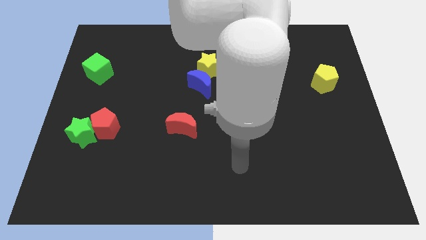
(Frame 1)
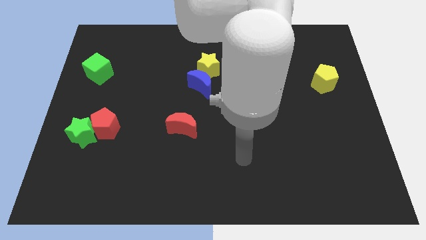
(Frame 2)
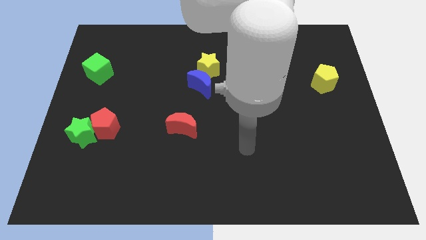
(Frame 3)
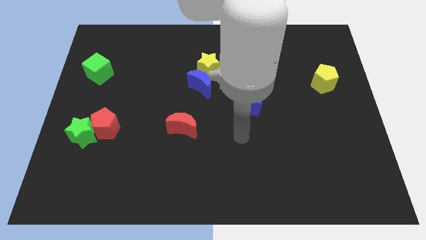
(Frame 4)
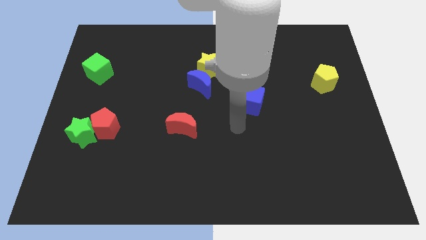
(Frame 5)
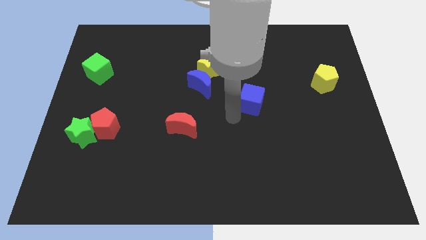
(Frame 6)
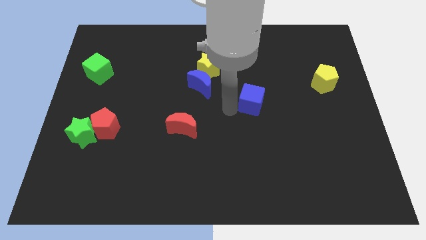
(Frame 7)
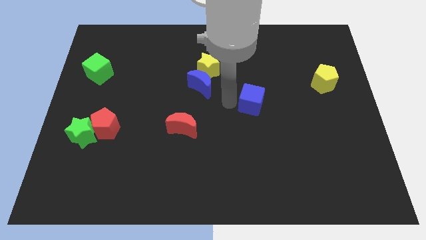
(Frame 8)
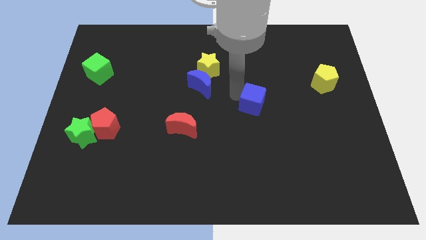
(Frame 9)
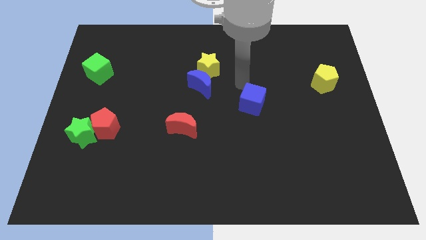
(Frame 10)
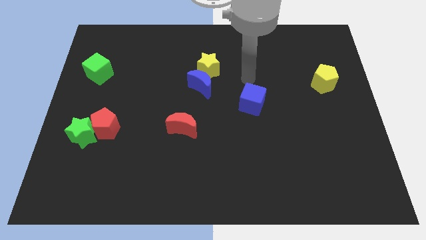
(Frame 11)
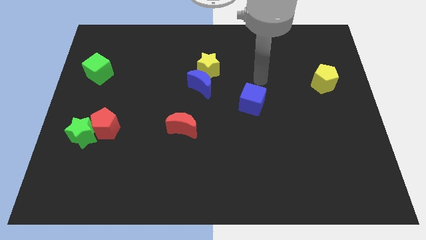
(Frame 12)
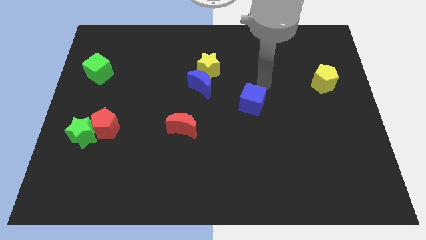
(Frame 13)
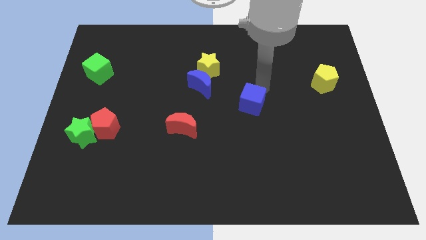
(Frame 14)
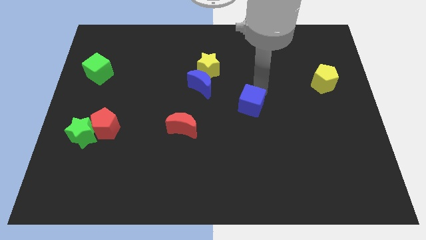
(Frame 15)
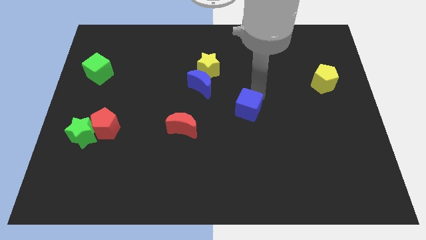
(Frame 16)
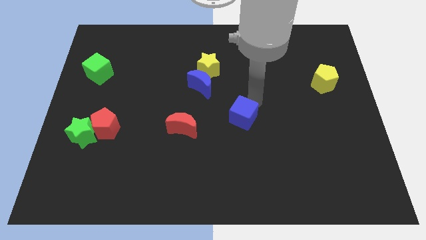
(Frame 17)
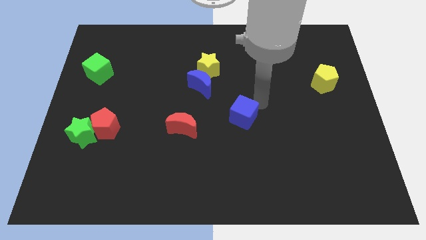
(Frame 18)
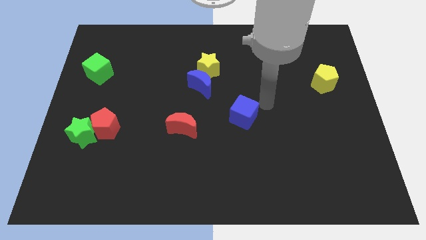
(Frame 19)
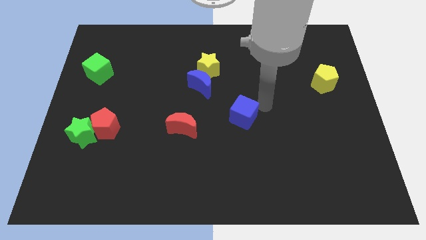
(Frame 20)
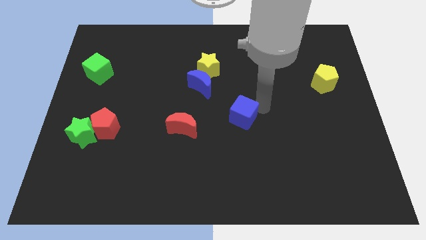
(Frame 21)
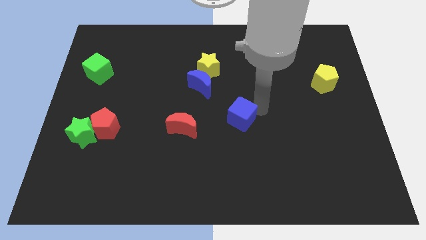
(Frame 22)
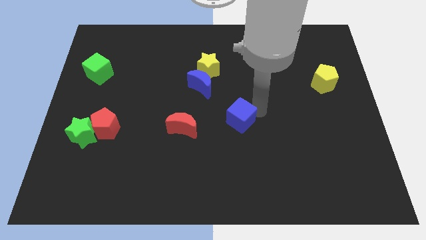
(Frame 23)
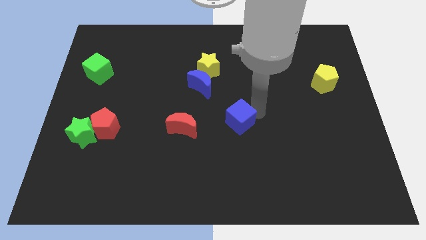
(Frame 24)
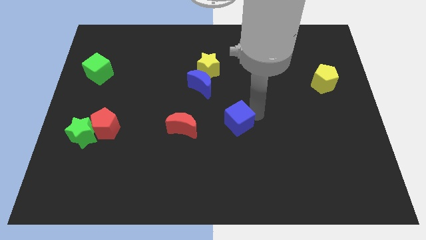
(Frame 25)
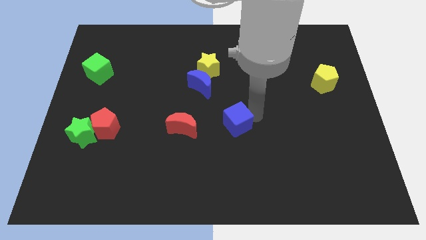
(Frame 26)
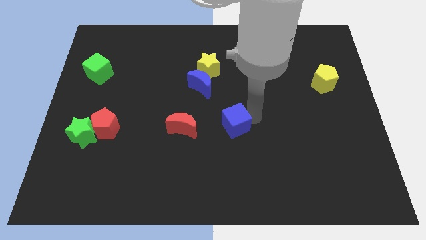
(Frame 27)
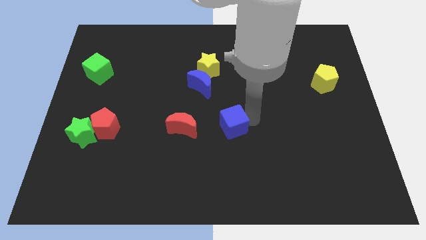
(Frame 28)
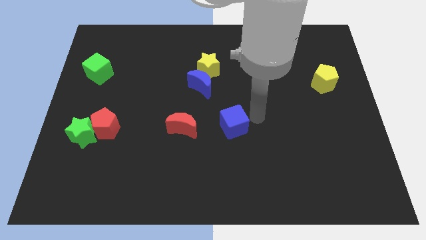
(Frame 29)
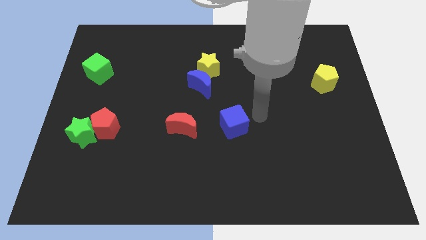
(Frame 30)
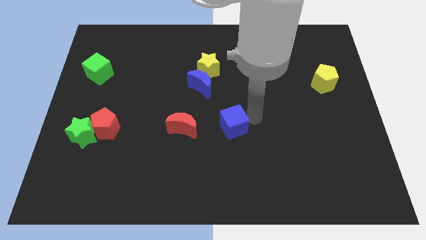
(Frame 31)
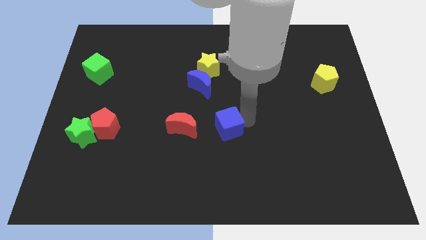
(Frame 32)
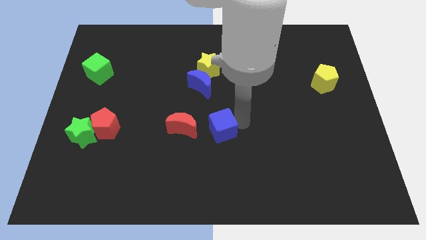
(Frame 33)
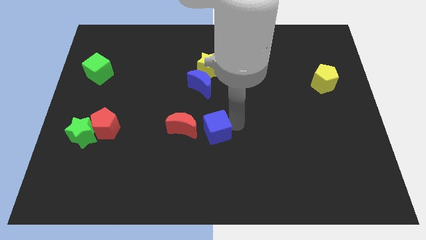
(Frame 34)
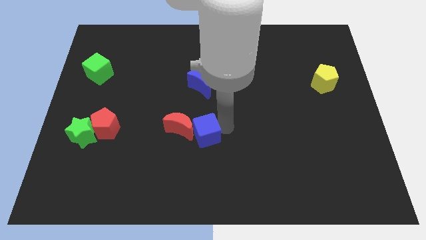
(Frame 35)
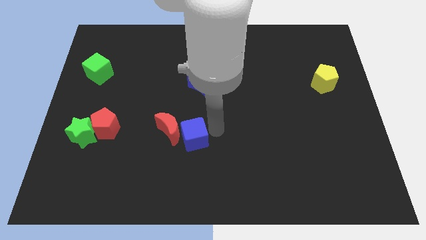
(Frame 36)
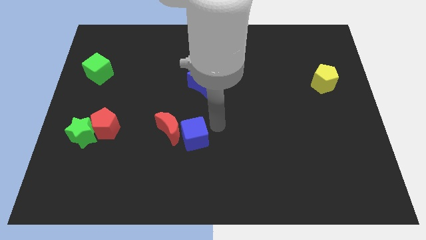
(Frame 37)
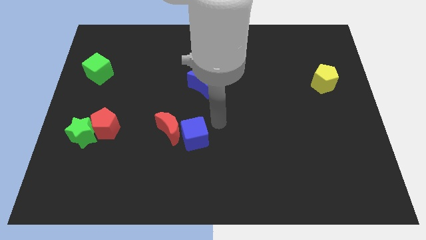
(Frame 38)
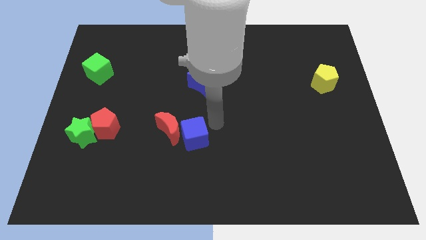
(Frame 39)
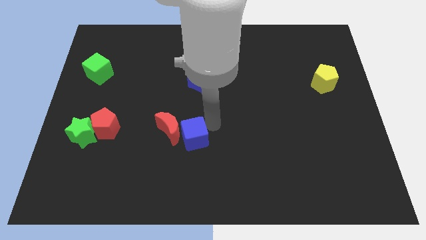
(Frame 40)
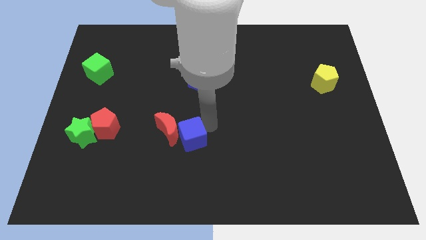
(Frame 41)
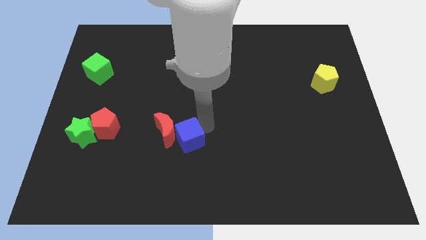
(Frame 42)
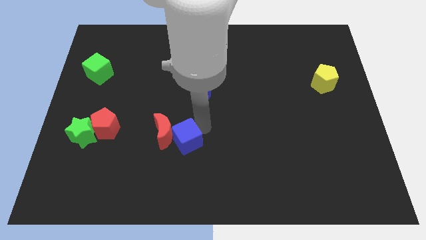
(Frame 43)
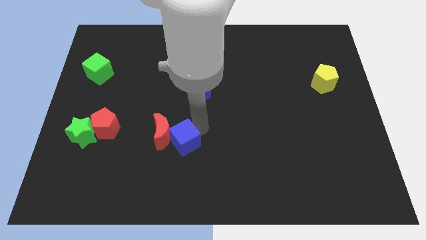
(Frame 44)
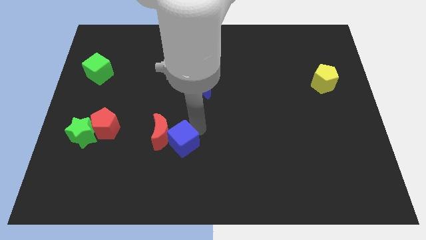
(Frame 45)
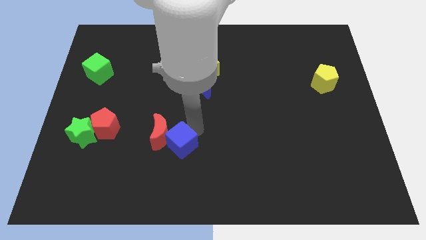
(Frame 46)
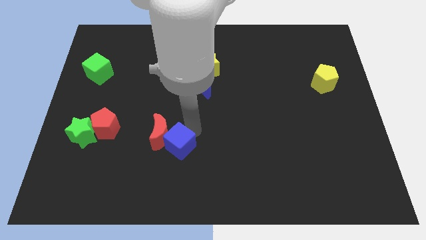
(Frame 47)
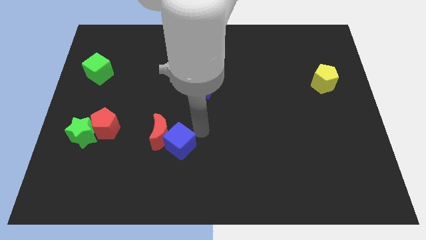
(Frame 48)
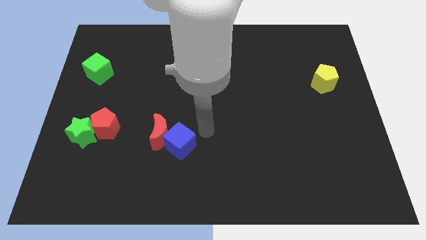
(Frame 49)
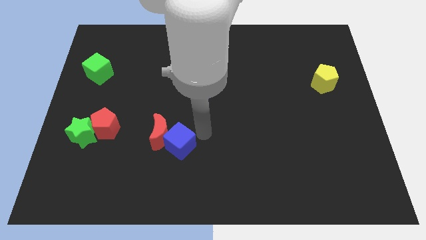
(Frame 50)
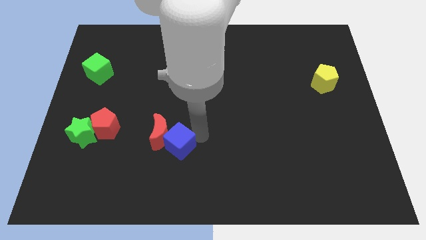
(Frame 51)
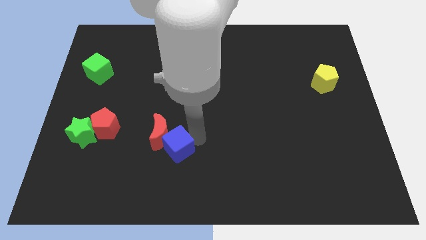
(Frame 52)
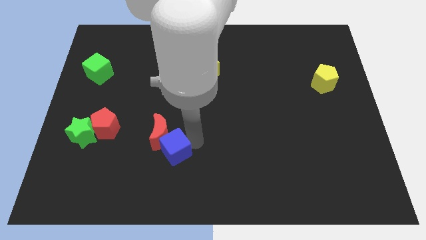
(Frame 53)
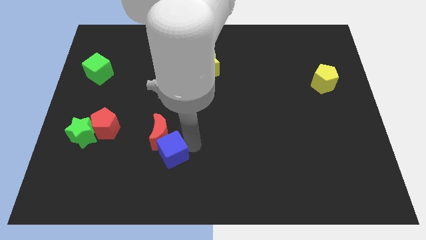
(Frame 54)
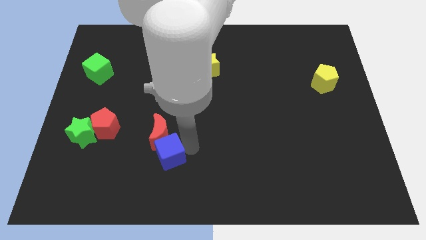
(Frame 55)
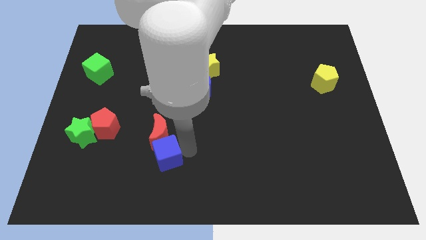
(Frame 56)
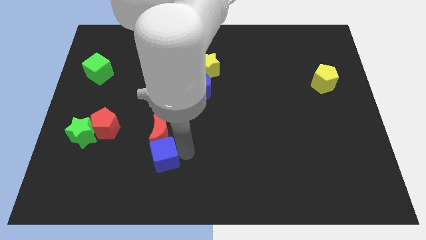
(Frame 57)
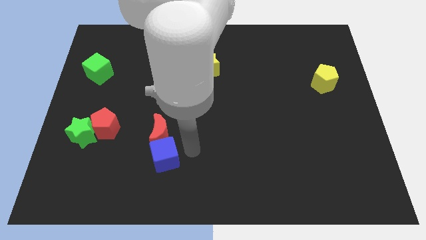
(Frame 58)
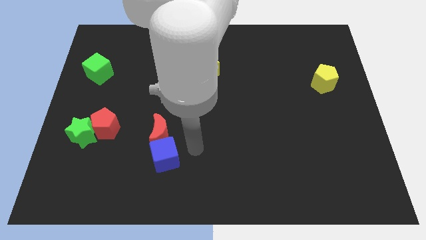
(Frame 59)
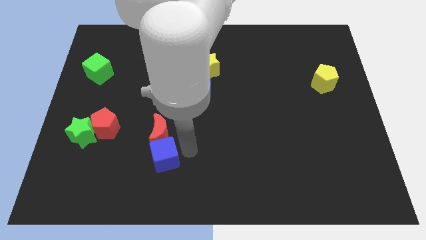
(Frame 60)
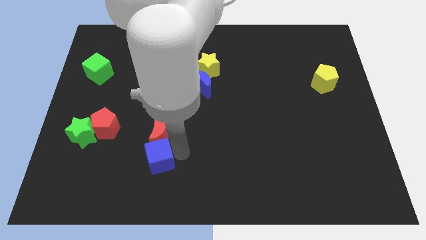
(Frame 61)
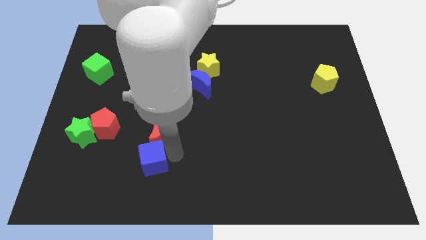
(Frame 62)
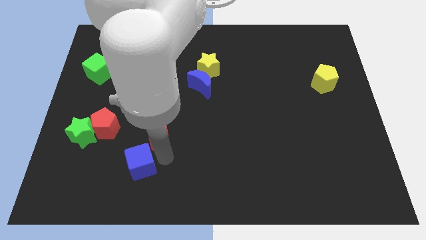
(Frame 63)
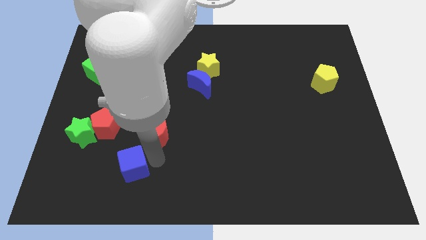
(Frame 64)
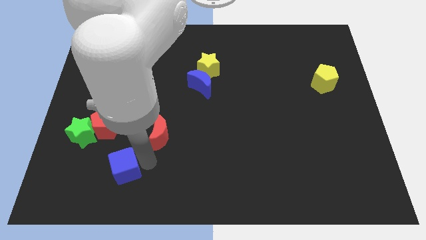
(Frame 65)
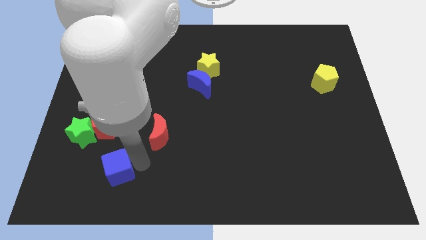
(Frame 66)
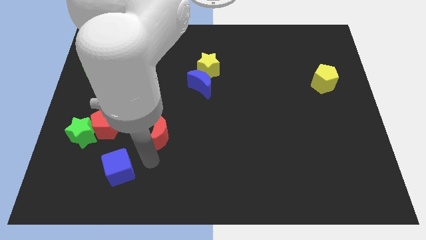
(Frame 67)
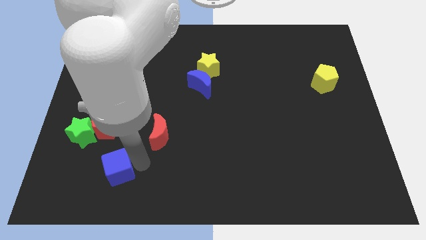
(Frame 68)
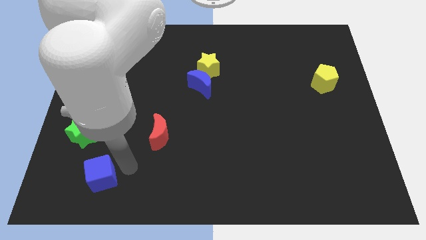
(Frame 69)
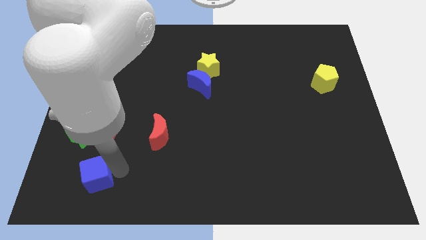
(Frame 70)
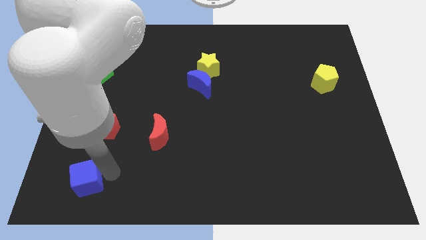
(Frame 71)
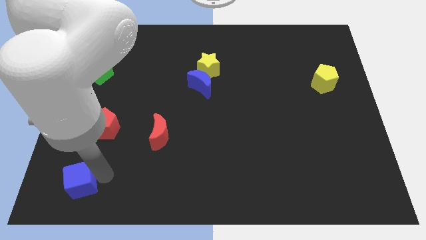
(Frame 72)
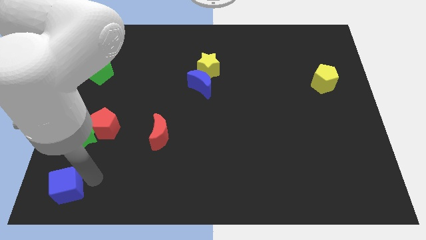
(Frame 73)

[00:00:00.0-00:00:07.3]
slide the blue cube to the bottom left corner
